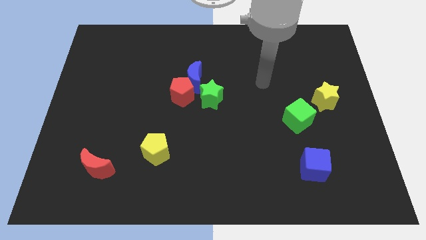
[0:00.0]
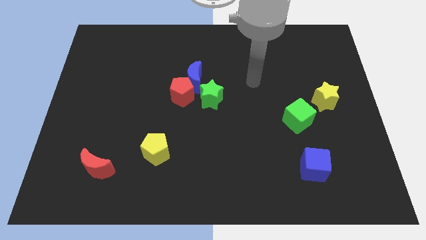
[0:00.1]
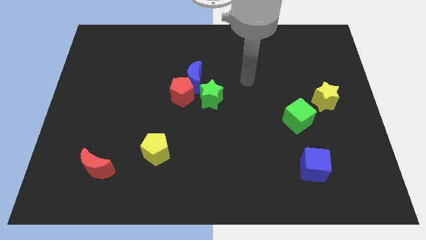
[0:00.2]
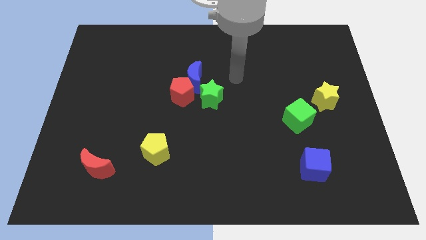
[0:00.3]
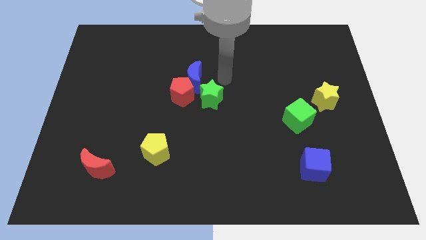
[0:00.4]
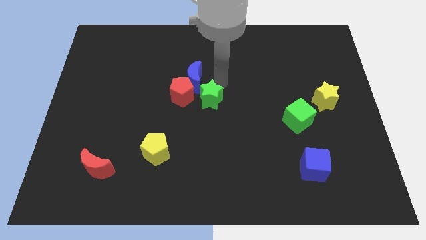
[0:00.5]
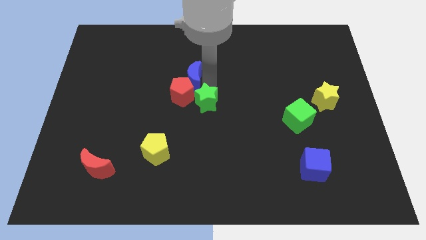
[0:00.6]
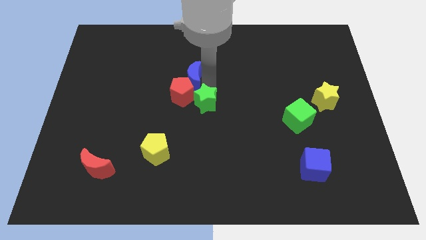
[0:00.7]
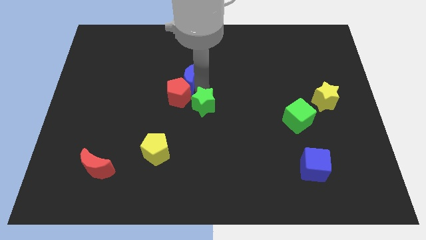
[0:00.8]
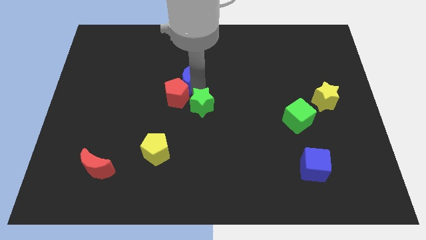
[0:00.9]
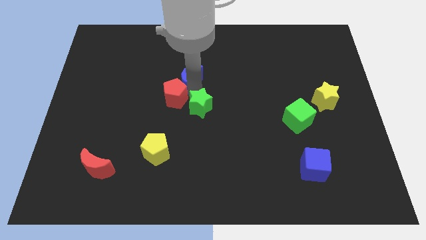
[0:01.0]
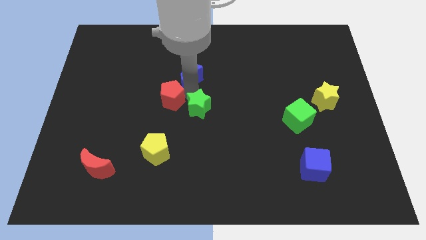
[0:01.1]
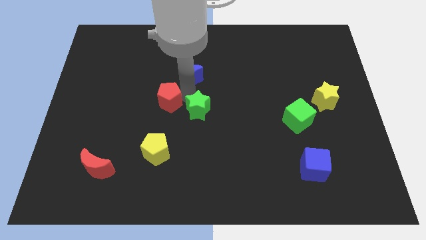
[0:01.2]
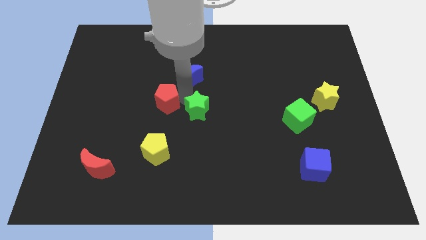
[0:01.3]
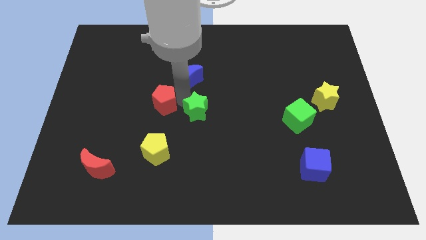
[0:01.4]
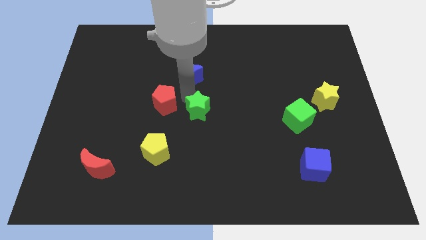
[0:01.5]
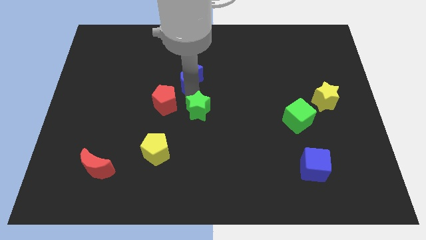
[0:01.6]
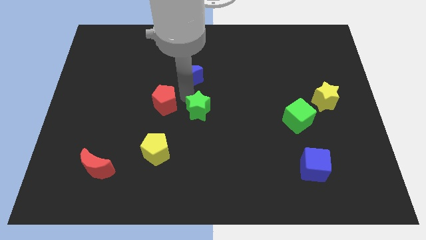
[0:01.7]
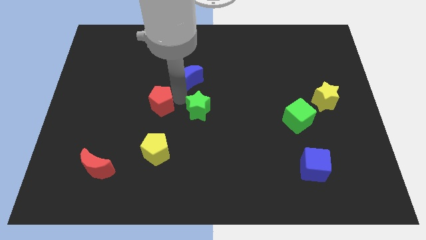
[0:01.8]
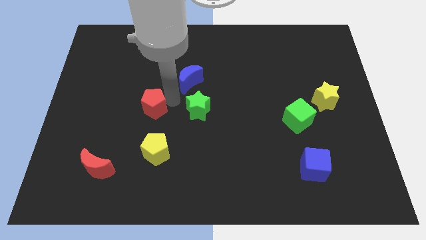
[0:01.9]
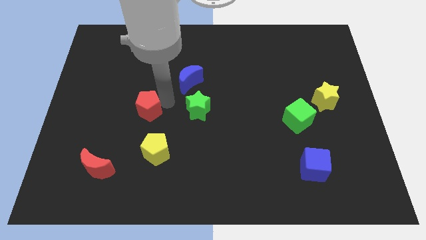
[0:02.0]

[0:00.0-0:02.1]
move the red pentagon away from the blue moon and green star

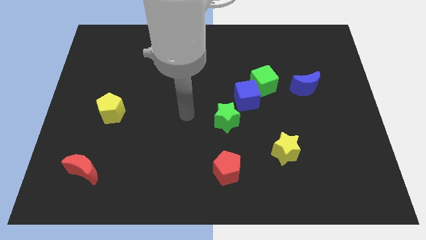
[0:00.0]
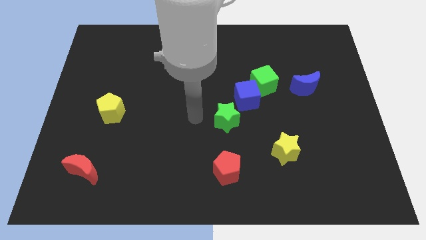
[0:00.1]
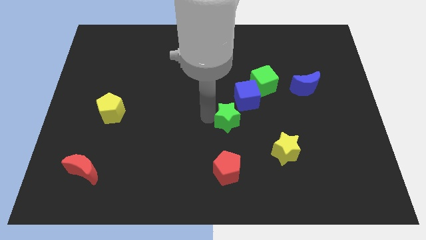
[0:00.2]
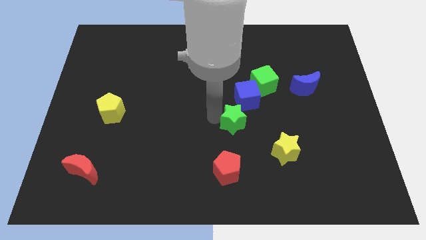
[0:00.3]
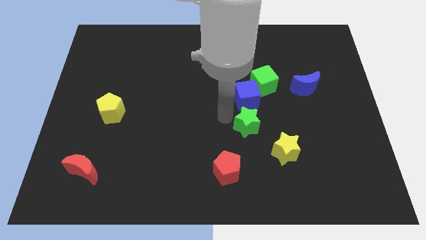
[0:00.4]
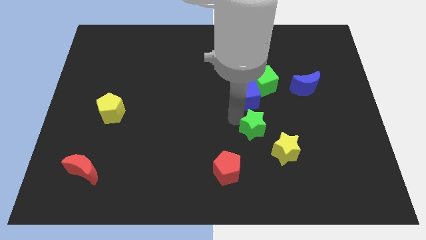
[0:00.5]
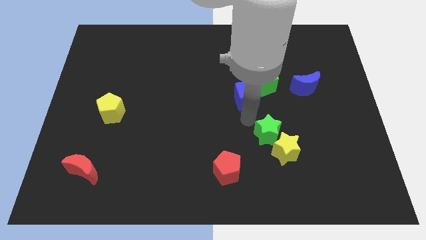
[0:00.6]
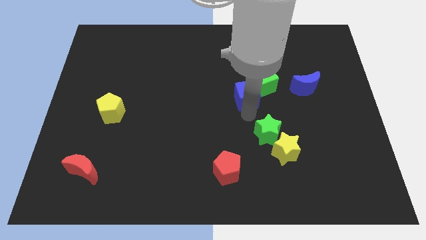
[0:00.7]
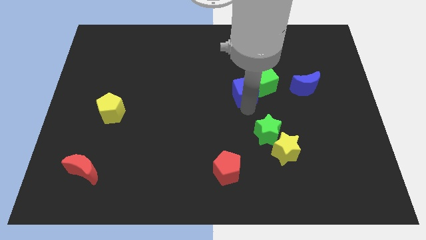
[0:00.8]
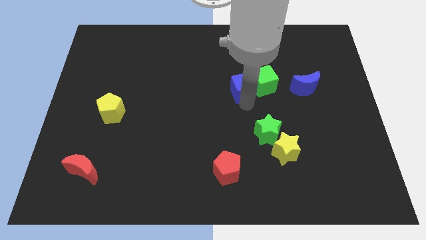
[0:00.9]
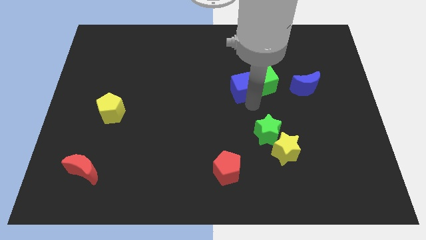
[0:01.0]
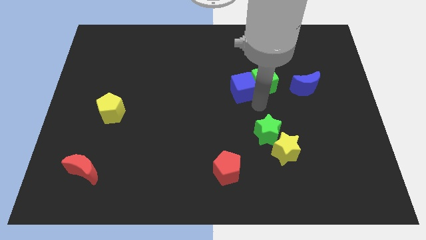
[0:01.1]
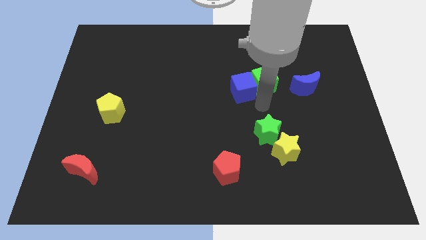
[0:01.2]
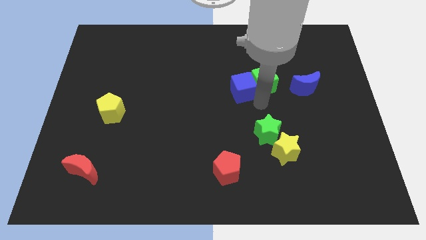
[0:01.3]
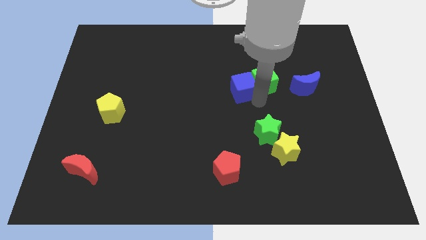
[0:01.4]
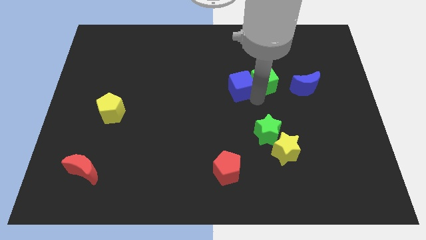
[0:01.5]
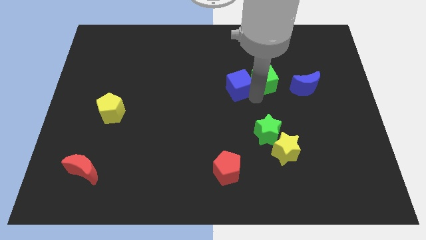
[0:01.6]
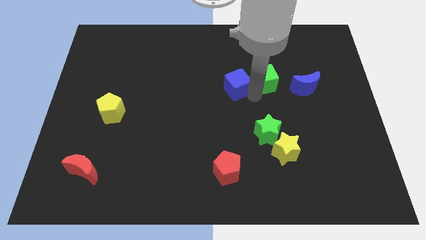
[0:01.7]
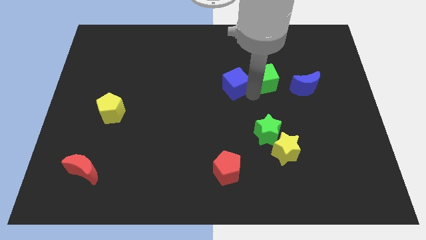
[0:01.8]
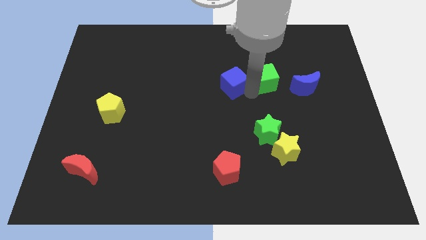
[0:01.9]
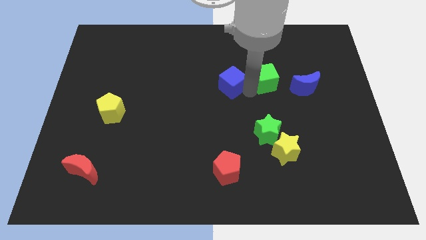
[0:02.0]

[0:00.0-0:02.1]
move the blue cube away from the green cube and green star

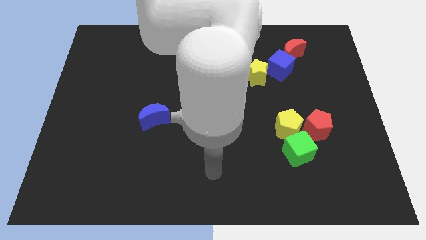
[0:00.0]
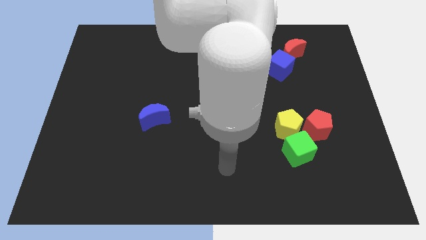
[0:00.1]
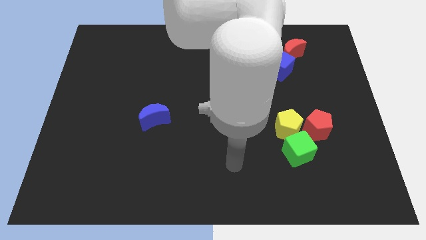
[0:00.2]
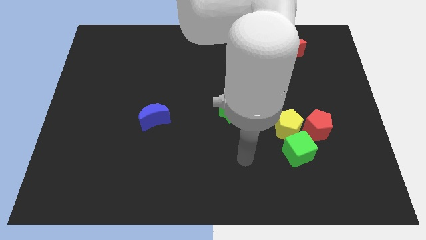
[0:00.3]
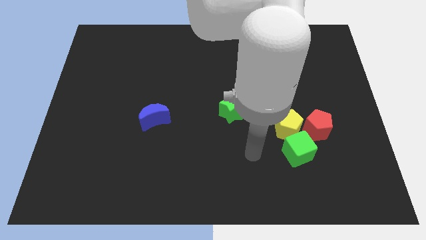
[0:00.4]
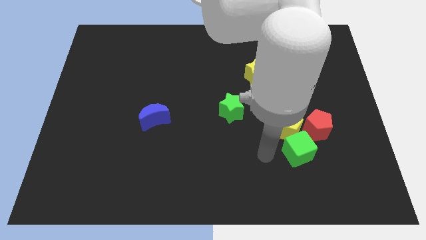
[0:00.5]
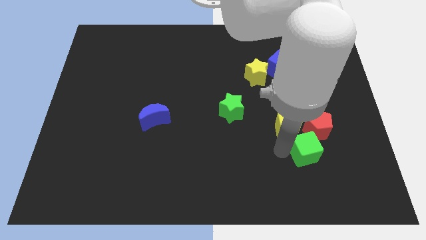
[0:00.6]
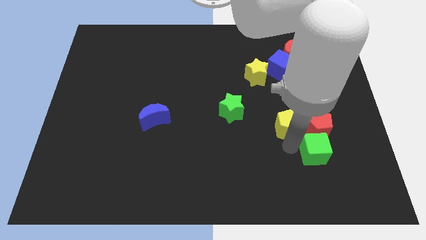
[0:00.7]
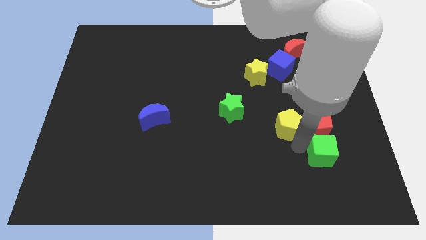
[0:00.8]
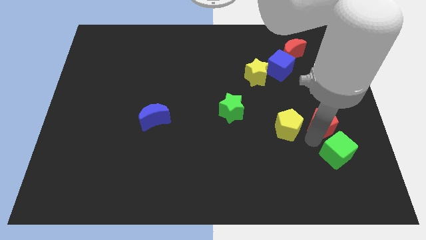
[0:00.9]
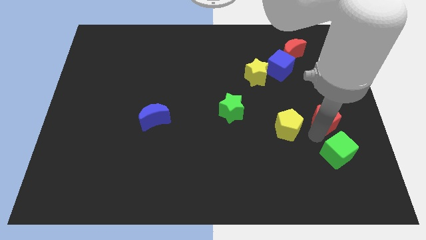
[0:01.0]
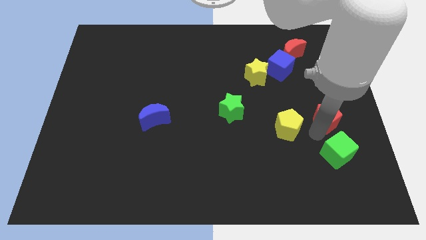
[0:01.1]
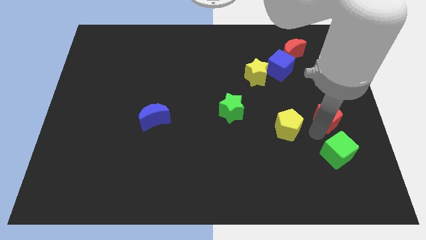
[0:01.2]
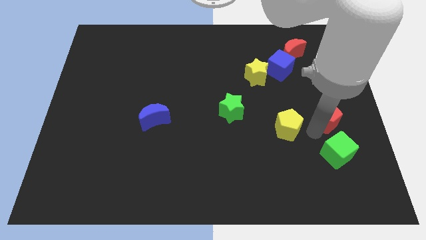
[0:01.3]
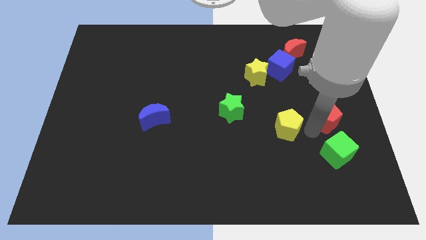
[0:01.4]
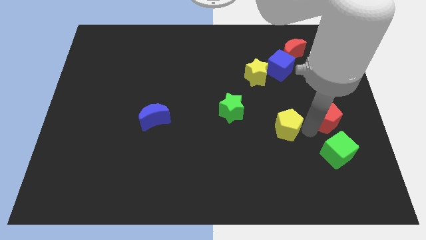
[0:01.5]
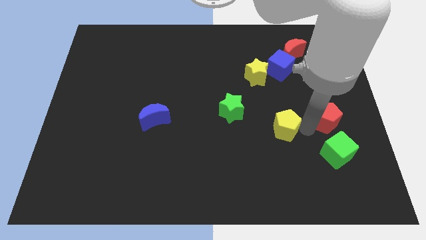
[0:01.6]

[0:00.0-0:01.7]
move the yellow pentagon away from the green cube and red pentagon

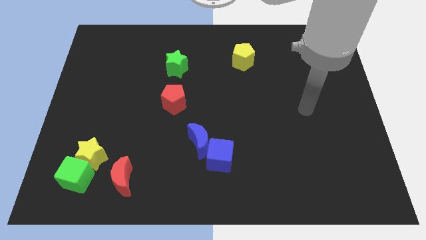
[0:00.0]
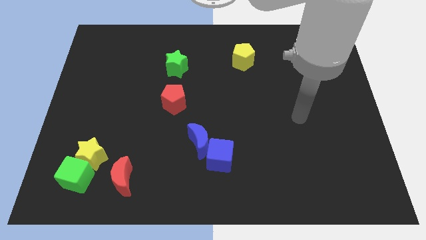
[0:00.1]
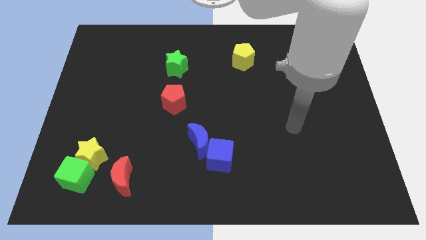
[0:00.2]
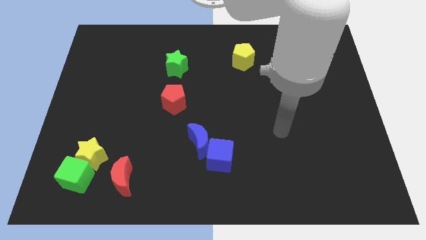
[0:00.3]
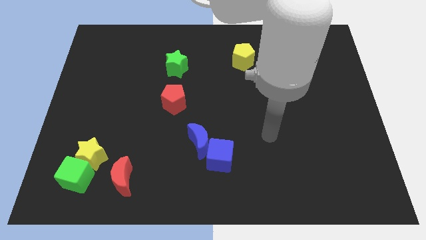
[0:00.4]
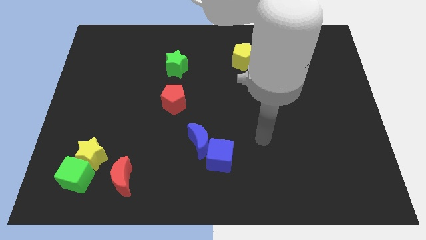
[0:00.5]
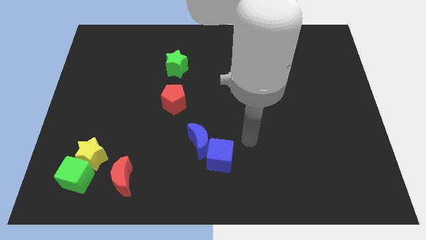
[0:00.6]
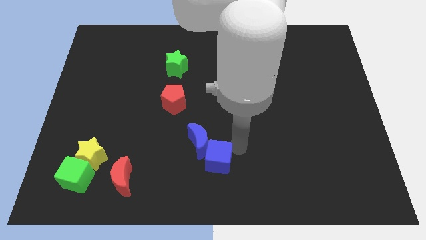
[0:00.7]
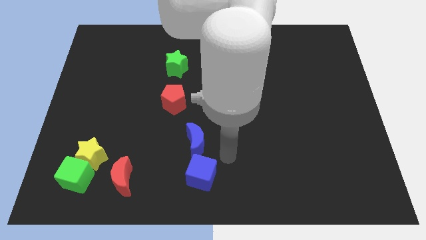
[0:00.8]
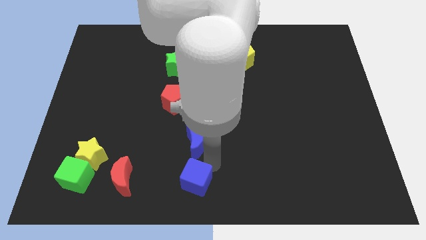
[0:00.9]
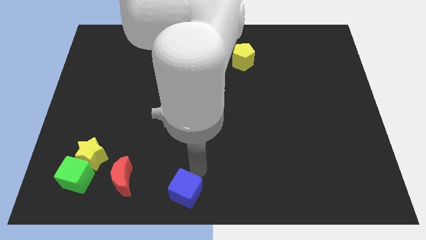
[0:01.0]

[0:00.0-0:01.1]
pull the blue moon apart from the blue cube

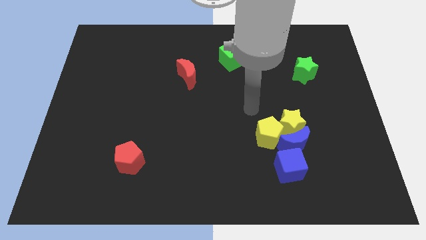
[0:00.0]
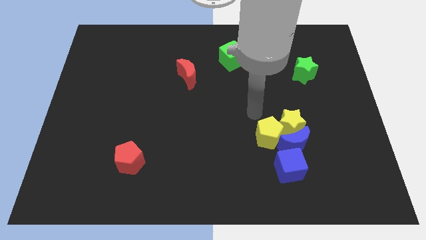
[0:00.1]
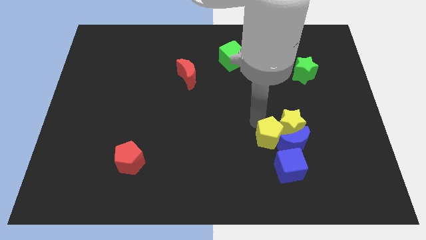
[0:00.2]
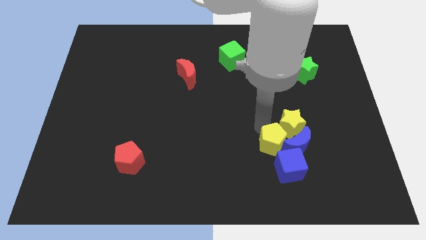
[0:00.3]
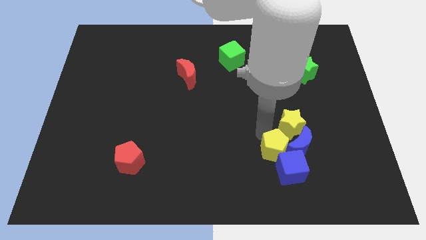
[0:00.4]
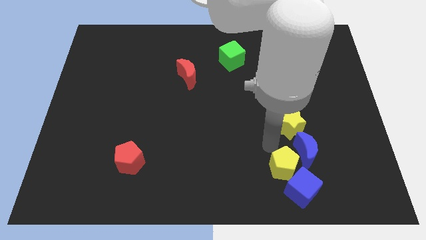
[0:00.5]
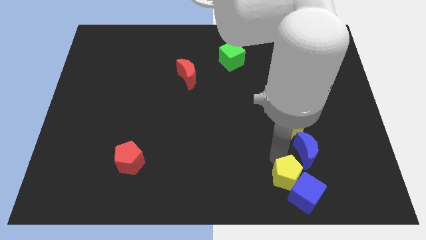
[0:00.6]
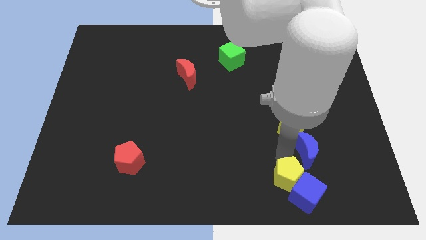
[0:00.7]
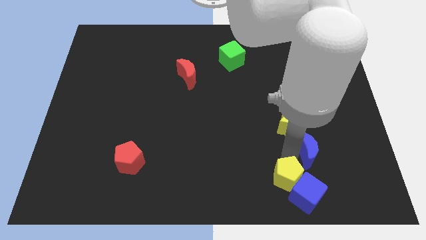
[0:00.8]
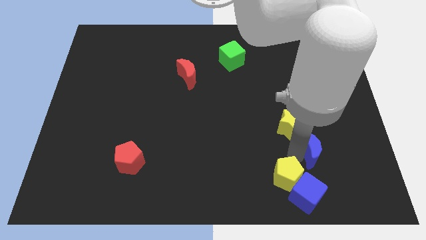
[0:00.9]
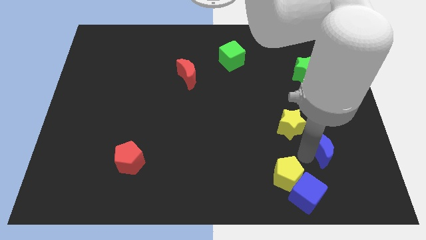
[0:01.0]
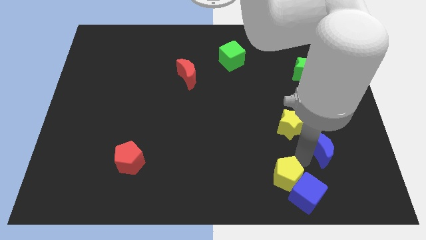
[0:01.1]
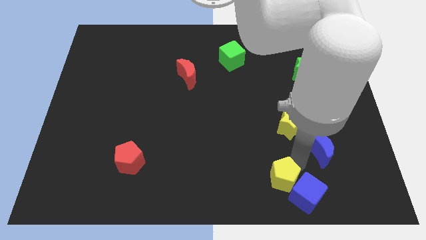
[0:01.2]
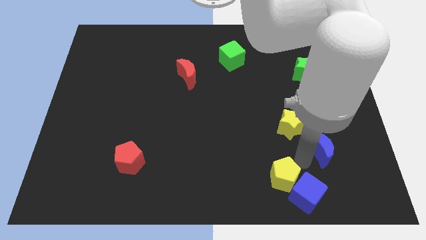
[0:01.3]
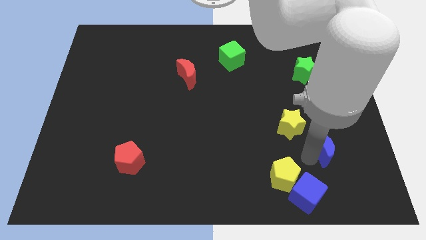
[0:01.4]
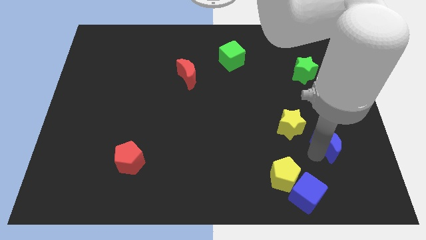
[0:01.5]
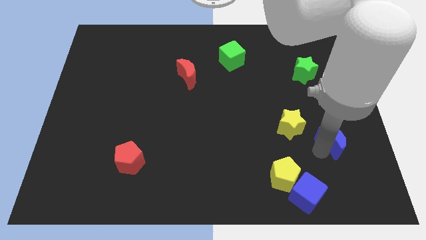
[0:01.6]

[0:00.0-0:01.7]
separate the blue moon from the yellow star, blue cube, and yellow pentagon

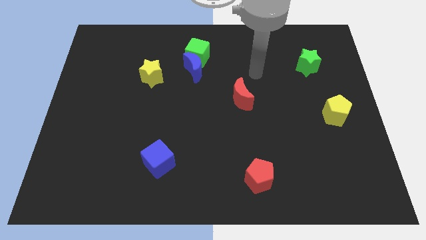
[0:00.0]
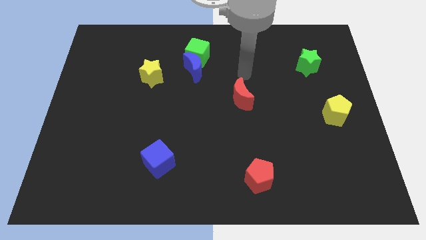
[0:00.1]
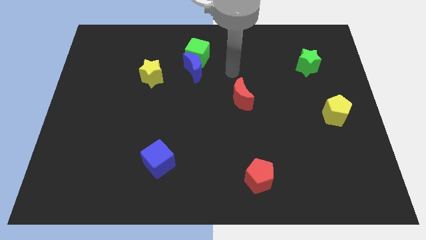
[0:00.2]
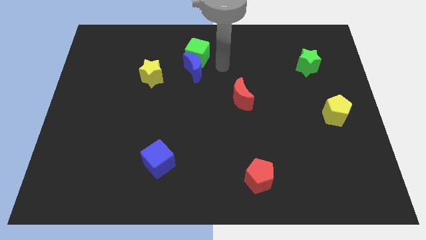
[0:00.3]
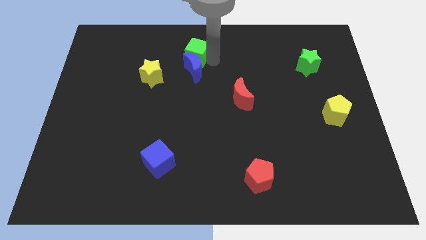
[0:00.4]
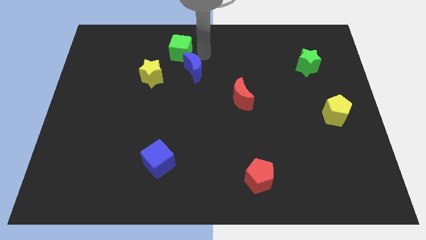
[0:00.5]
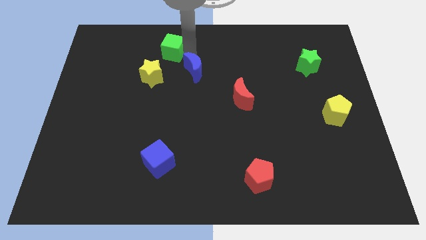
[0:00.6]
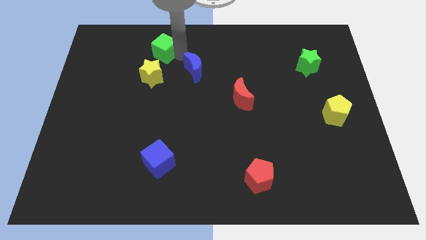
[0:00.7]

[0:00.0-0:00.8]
separate the blue moon from the green cube
